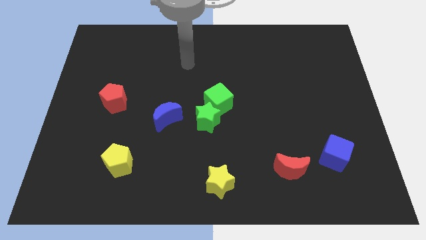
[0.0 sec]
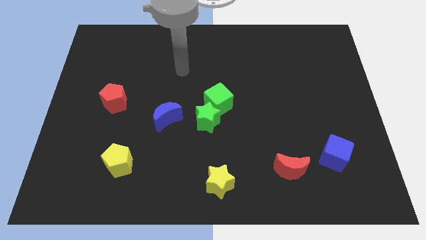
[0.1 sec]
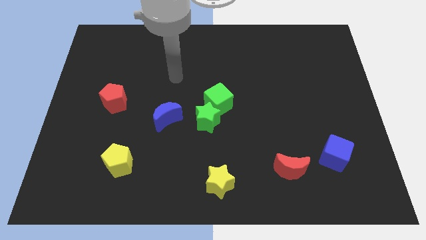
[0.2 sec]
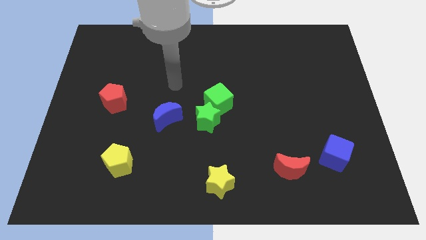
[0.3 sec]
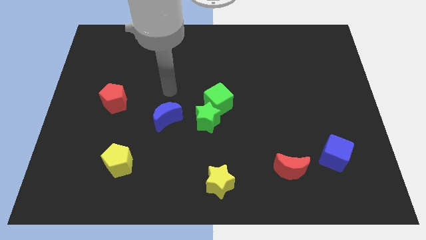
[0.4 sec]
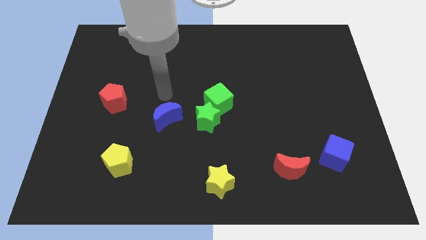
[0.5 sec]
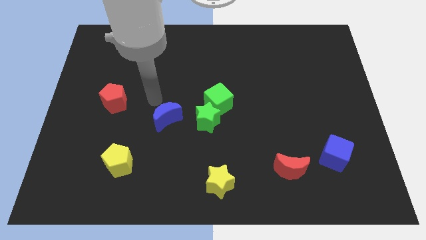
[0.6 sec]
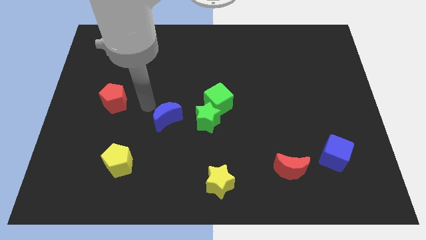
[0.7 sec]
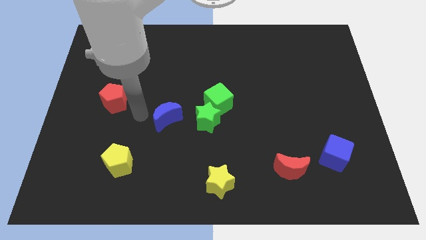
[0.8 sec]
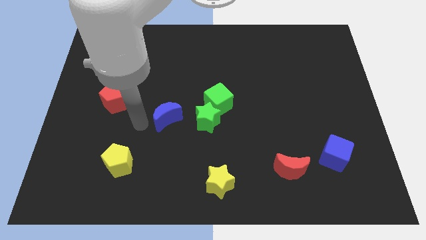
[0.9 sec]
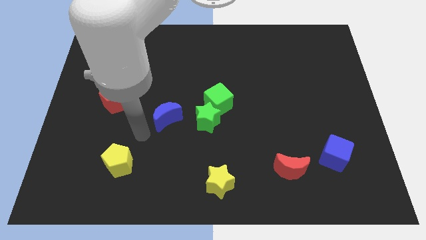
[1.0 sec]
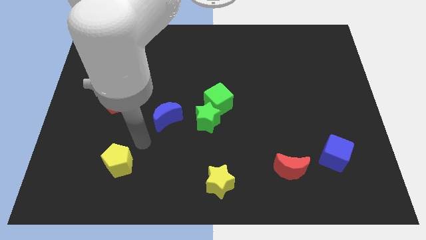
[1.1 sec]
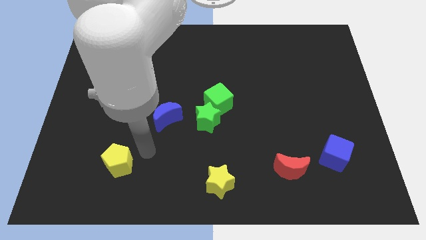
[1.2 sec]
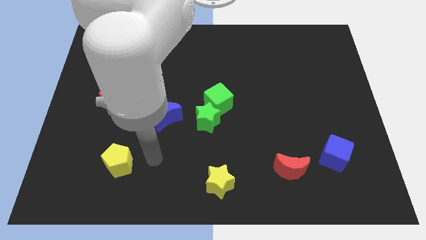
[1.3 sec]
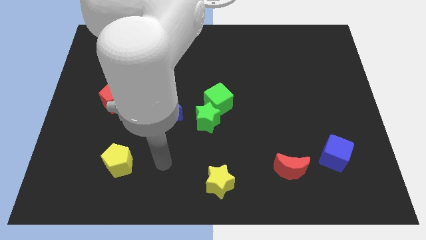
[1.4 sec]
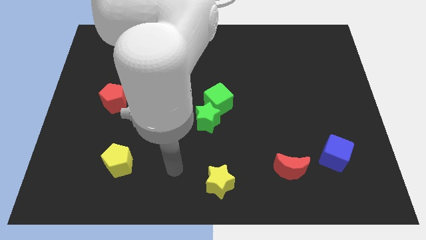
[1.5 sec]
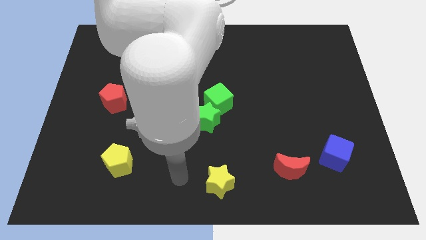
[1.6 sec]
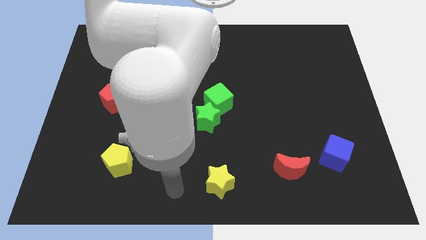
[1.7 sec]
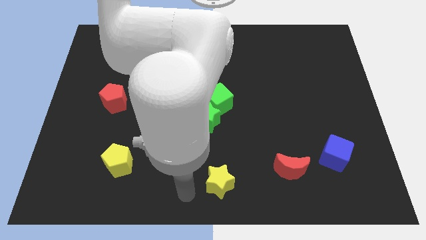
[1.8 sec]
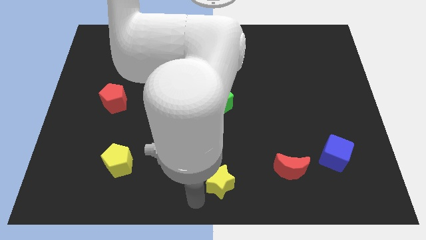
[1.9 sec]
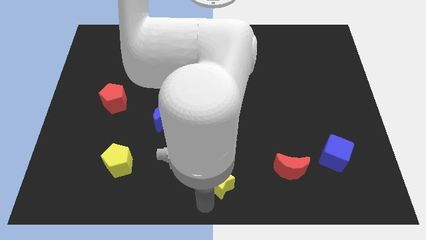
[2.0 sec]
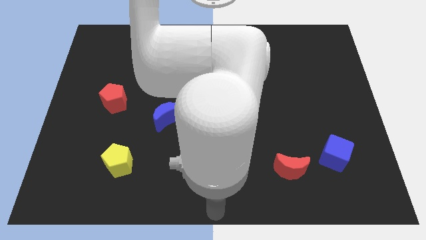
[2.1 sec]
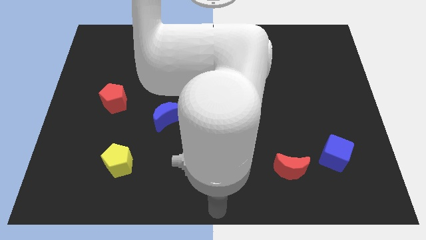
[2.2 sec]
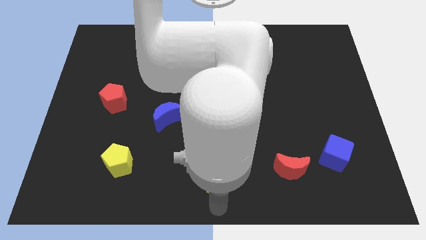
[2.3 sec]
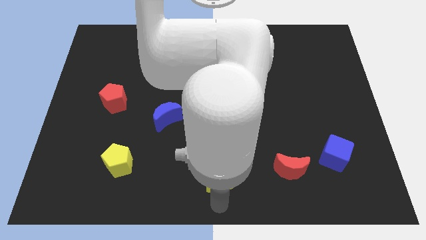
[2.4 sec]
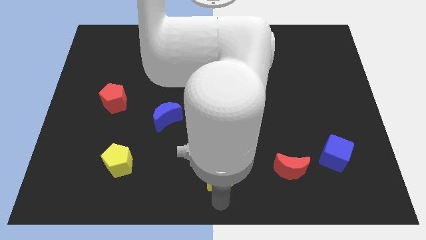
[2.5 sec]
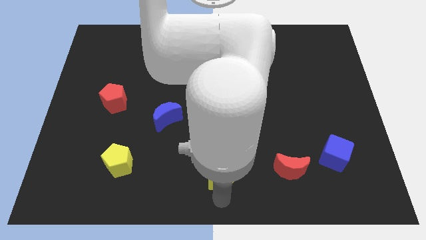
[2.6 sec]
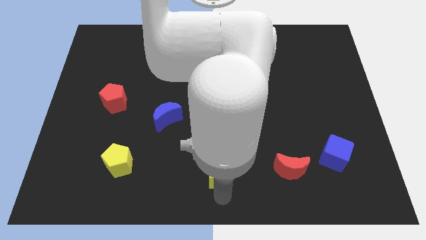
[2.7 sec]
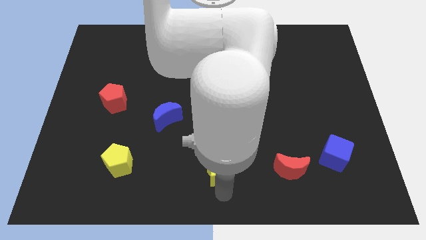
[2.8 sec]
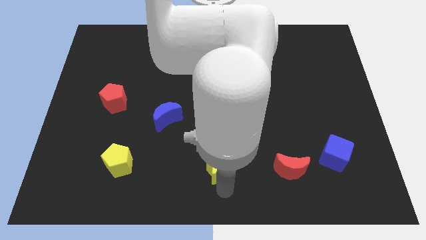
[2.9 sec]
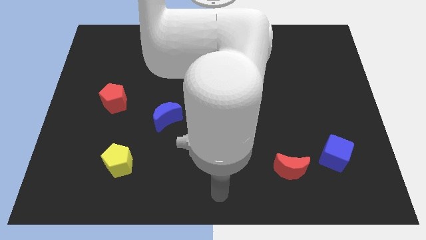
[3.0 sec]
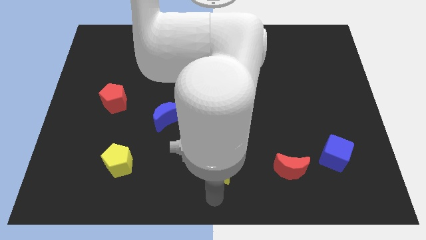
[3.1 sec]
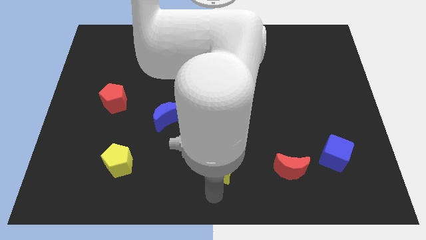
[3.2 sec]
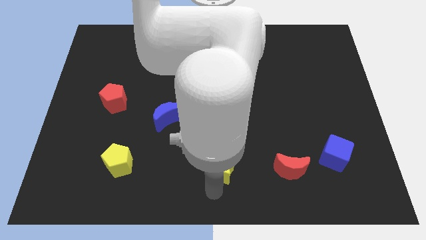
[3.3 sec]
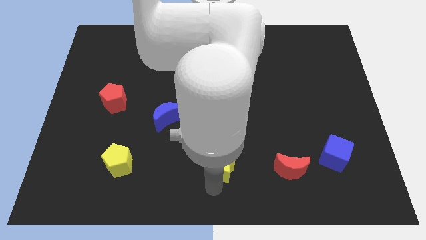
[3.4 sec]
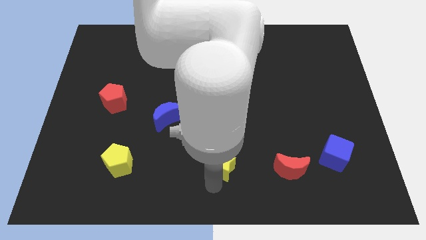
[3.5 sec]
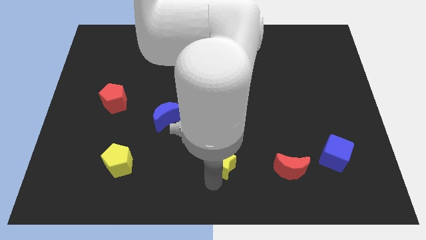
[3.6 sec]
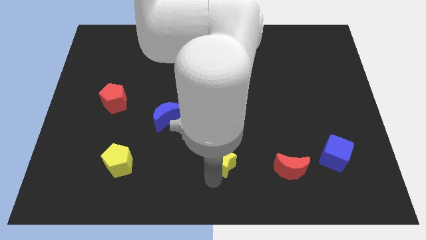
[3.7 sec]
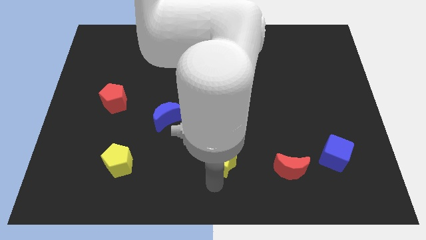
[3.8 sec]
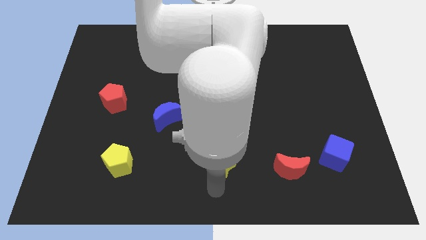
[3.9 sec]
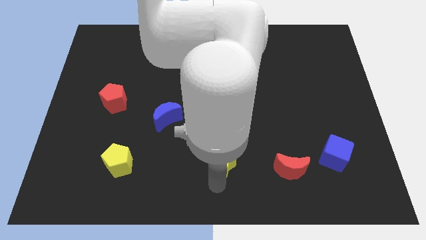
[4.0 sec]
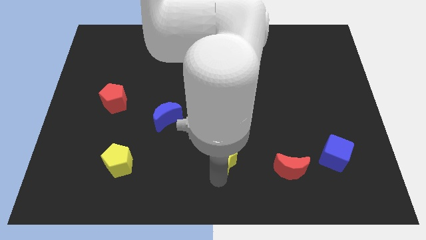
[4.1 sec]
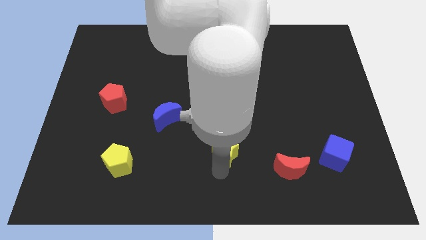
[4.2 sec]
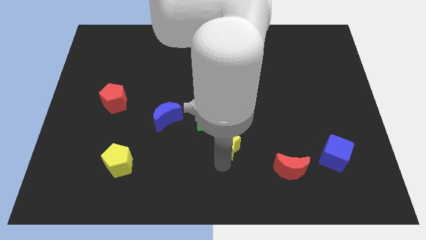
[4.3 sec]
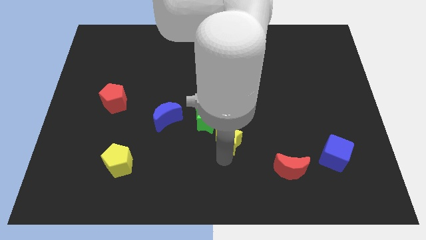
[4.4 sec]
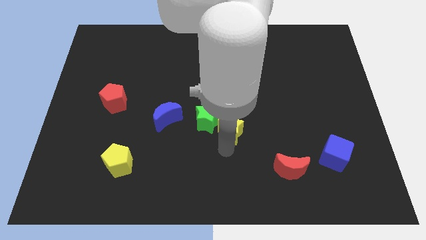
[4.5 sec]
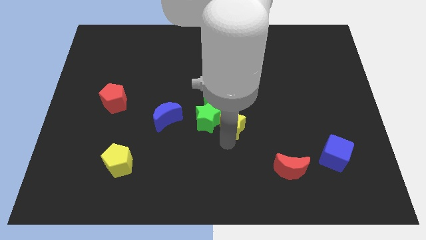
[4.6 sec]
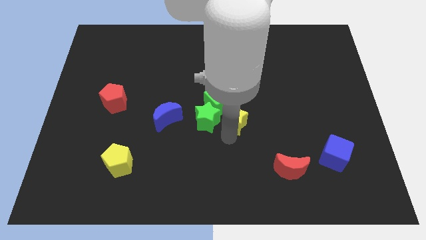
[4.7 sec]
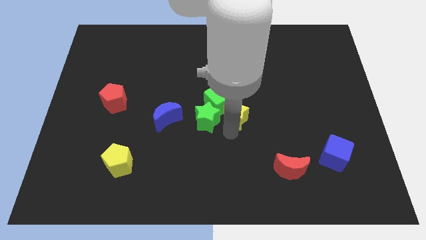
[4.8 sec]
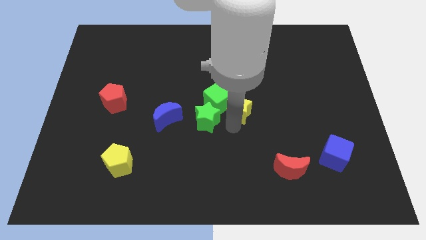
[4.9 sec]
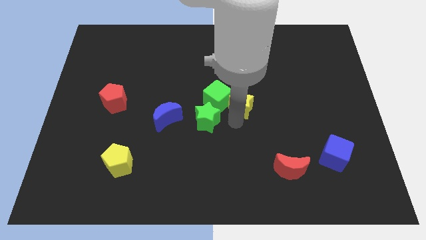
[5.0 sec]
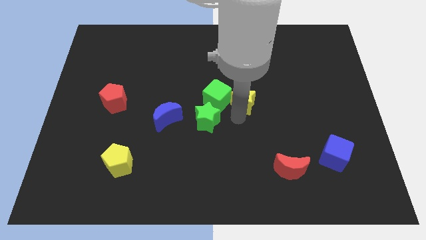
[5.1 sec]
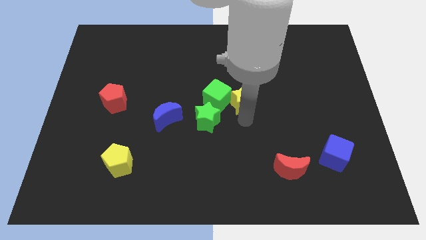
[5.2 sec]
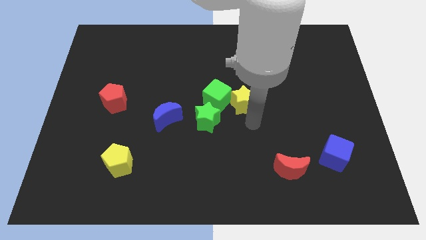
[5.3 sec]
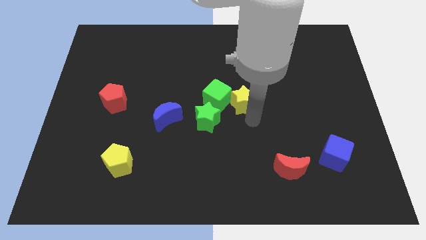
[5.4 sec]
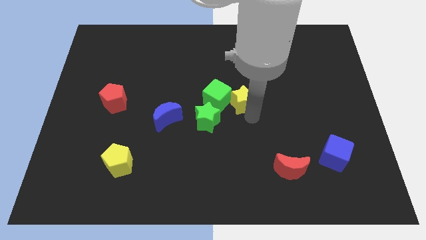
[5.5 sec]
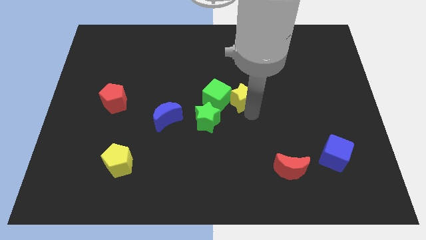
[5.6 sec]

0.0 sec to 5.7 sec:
move the yellow star up

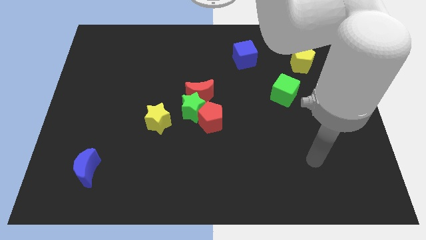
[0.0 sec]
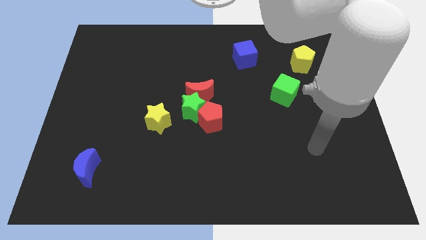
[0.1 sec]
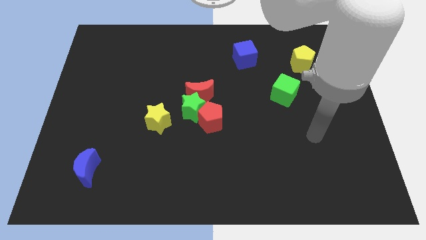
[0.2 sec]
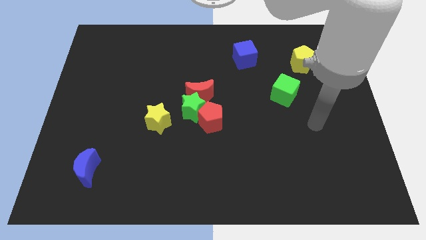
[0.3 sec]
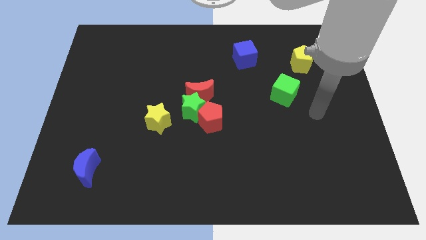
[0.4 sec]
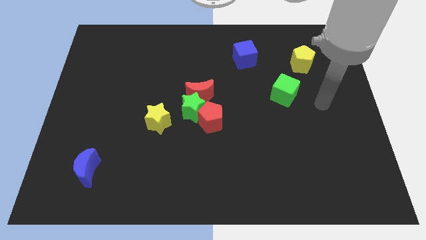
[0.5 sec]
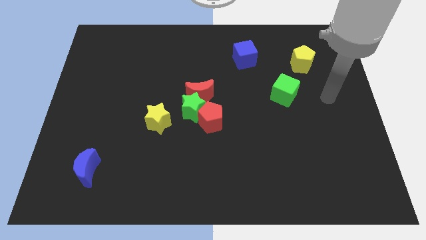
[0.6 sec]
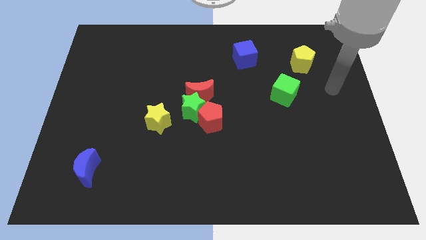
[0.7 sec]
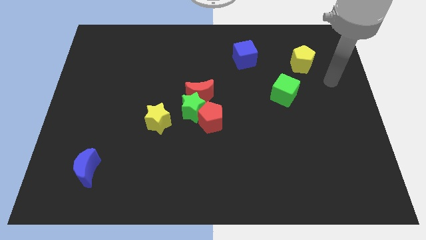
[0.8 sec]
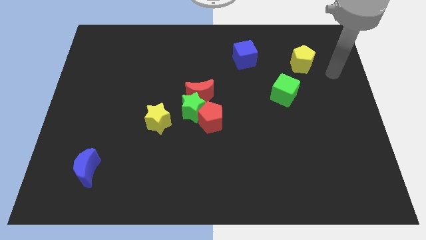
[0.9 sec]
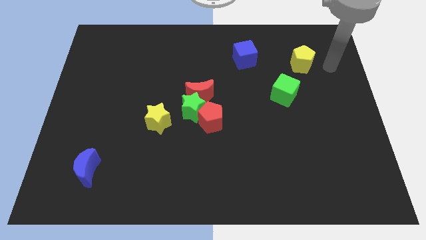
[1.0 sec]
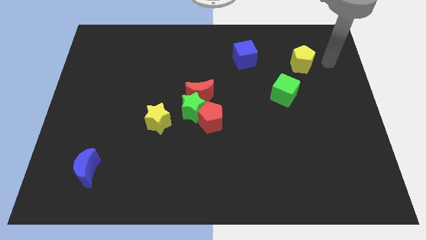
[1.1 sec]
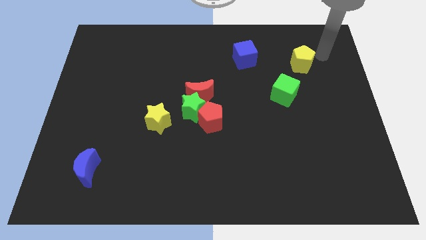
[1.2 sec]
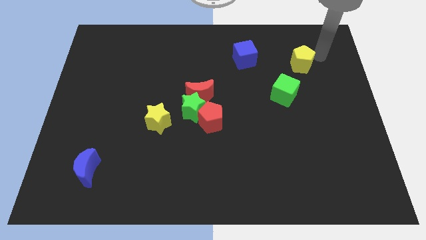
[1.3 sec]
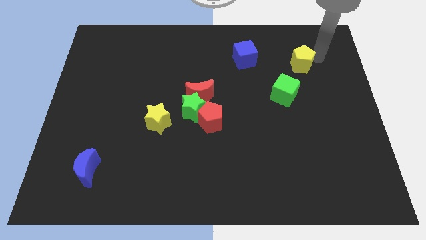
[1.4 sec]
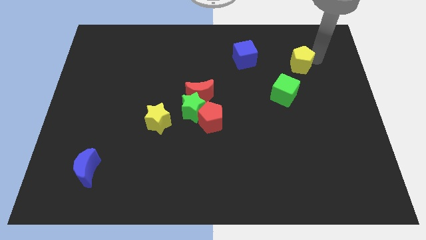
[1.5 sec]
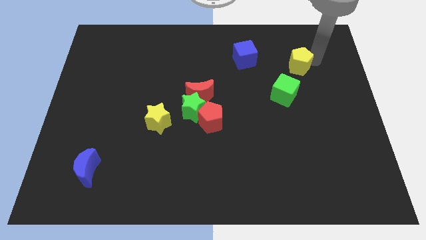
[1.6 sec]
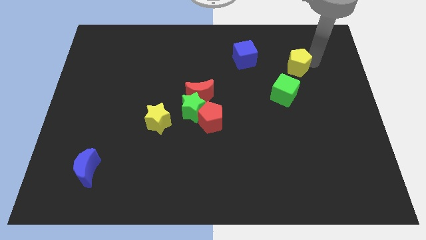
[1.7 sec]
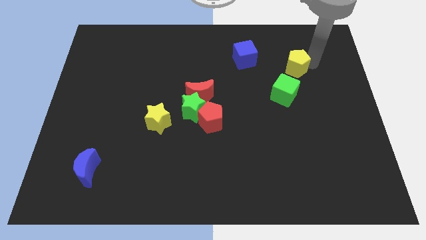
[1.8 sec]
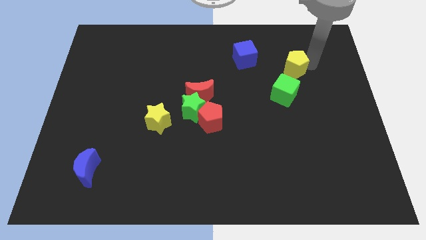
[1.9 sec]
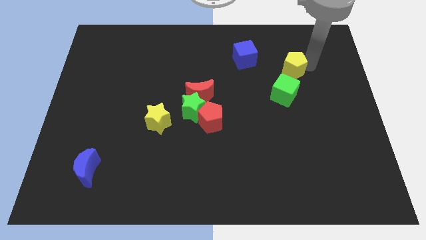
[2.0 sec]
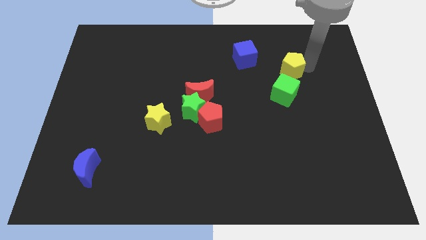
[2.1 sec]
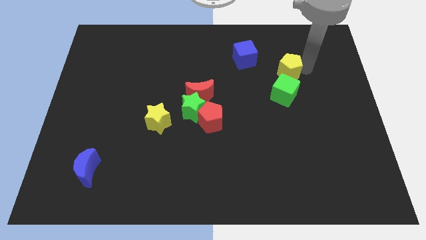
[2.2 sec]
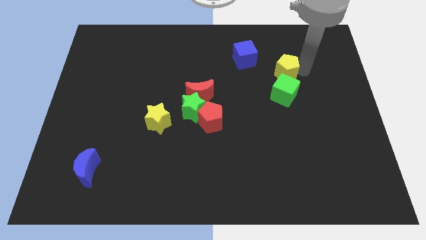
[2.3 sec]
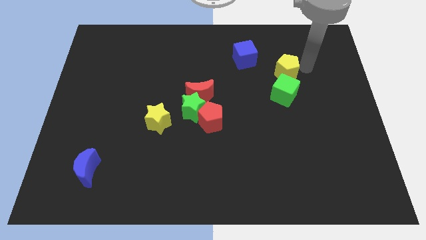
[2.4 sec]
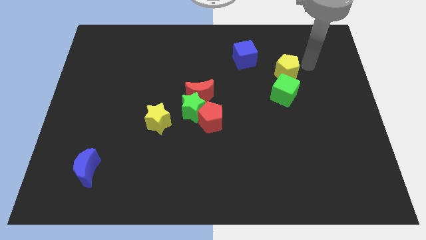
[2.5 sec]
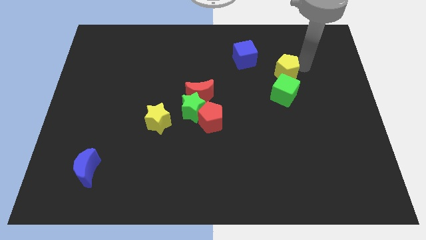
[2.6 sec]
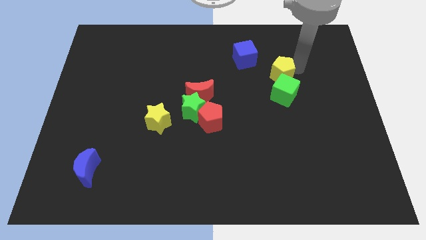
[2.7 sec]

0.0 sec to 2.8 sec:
slide the yellow pentagon a little downwards and to the left
